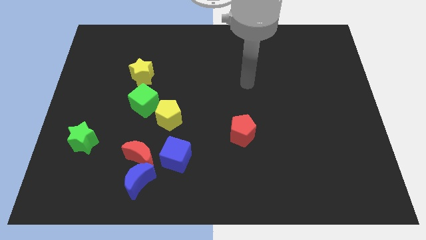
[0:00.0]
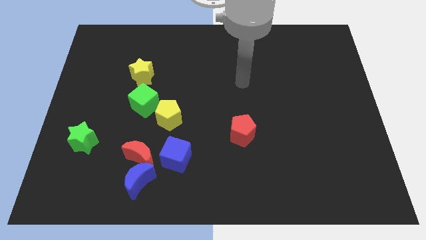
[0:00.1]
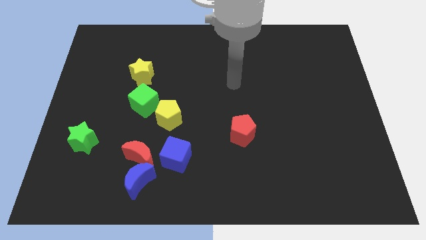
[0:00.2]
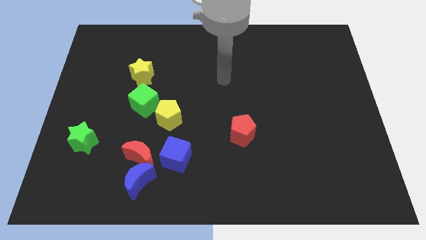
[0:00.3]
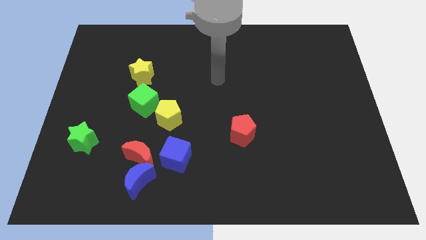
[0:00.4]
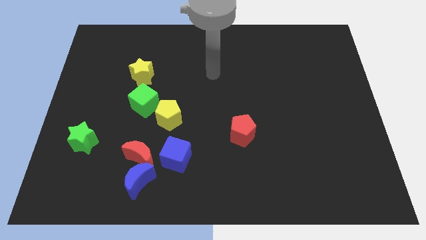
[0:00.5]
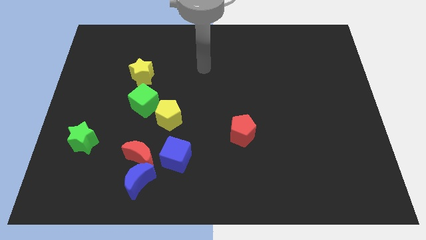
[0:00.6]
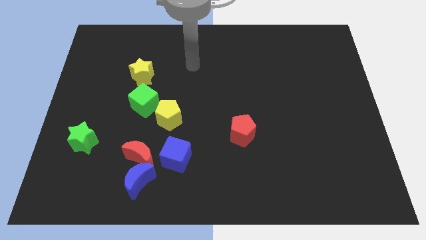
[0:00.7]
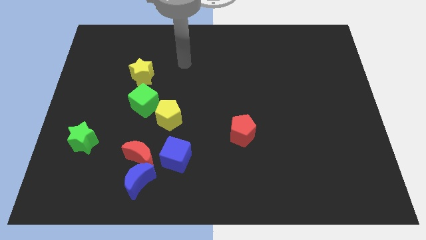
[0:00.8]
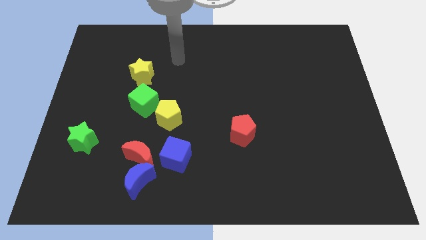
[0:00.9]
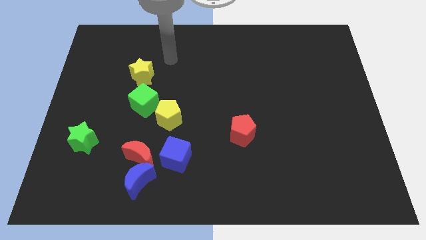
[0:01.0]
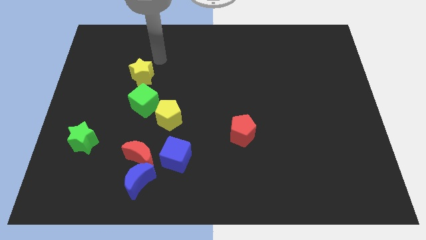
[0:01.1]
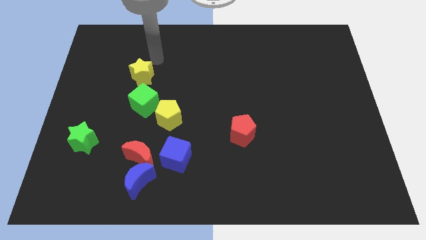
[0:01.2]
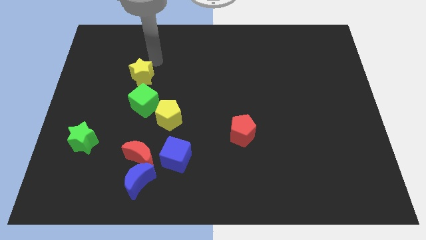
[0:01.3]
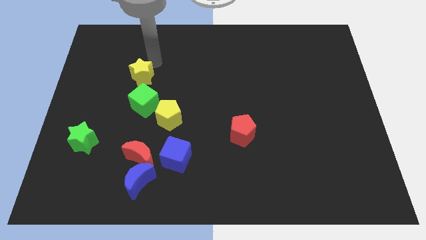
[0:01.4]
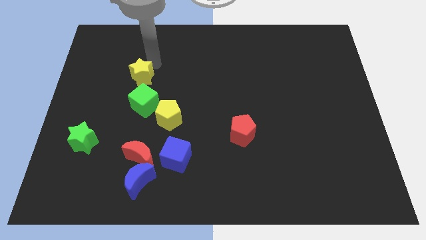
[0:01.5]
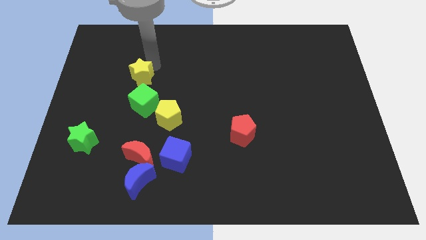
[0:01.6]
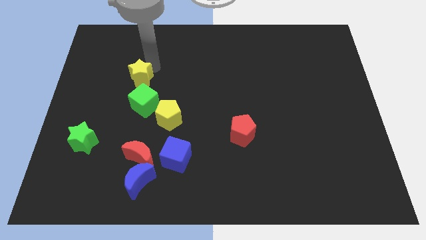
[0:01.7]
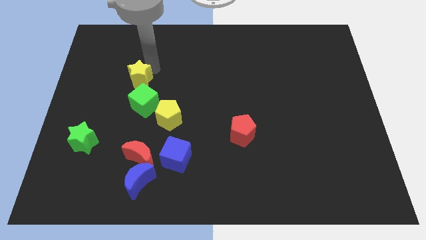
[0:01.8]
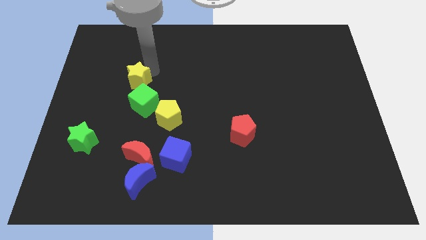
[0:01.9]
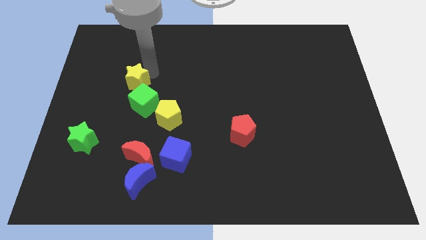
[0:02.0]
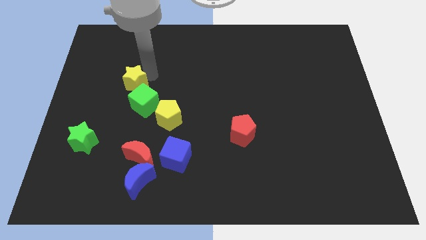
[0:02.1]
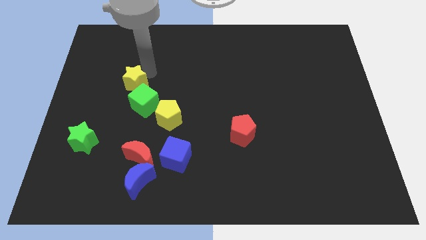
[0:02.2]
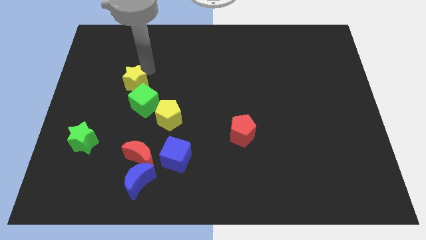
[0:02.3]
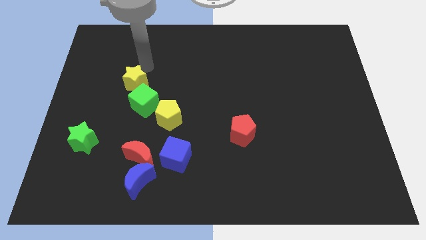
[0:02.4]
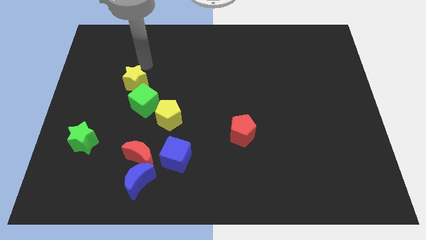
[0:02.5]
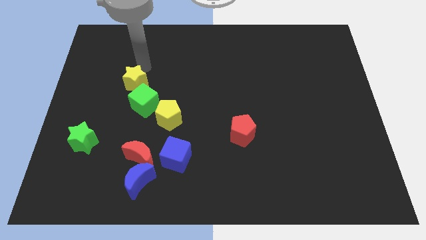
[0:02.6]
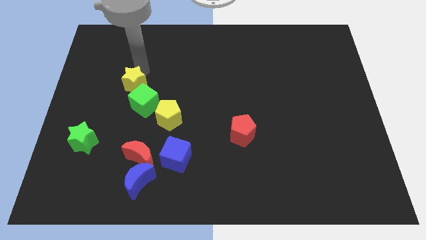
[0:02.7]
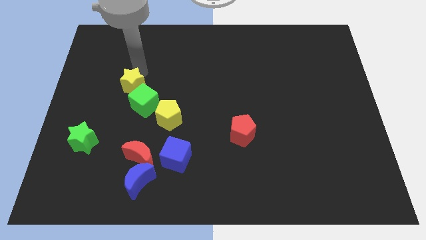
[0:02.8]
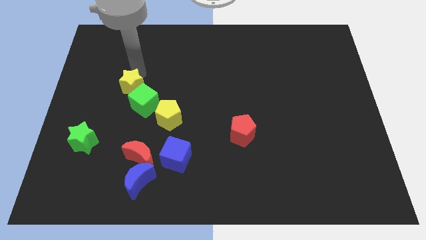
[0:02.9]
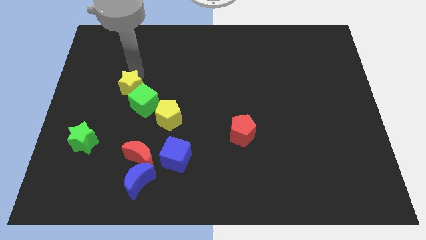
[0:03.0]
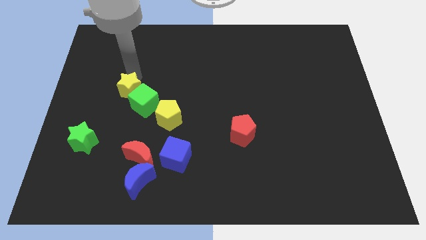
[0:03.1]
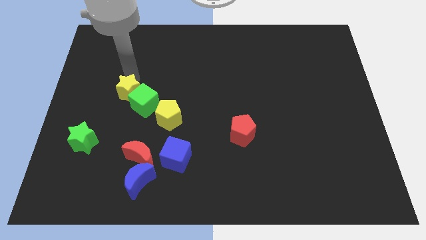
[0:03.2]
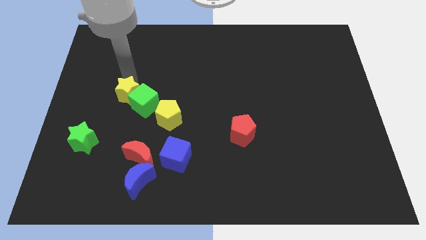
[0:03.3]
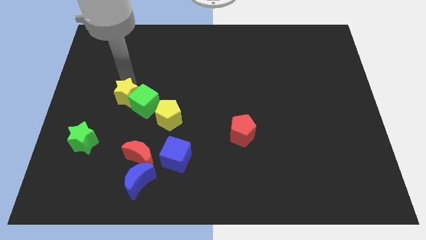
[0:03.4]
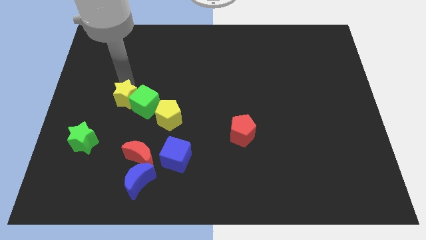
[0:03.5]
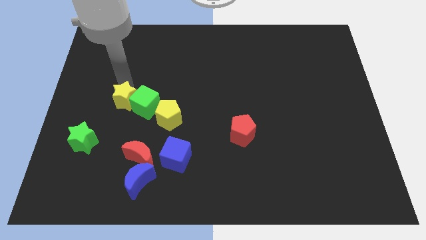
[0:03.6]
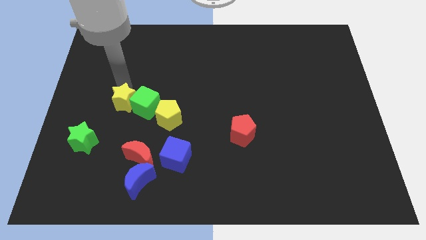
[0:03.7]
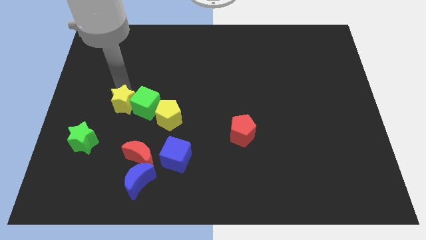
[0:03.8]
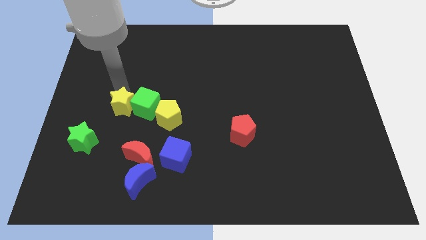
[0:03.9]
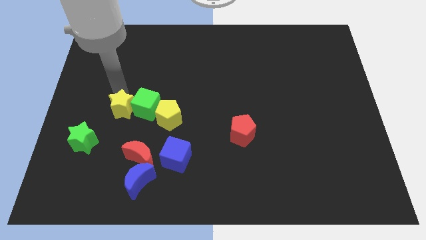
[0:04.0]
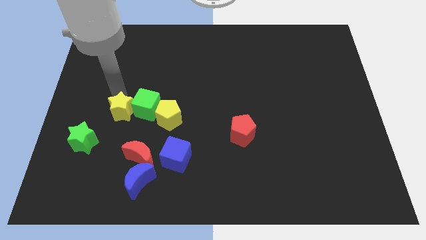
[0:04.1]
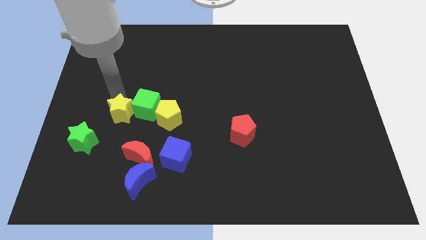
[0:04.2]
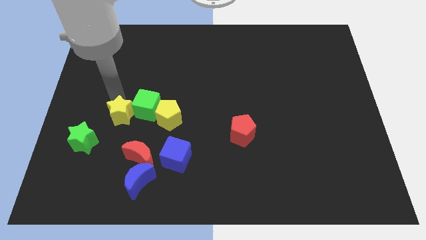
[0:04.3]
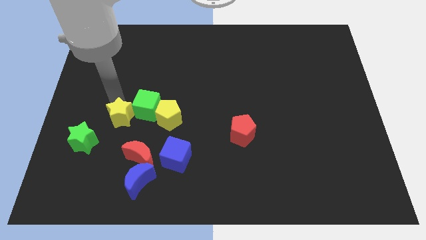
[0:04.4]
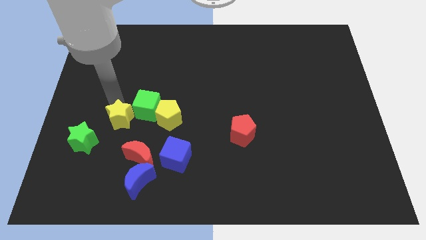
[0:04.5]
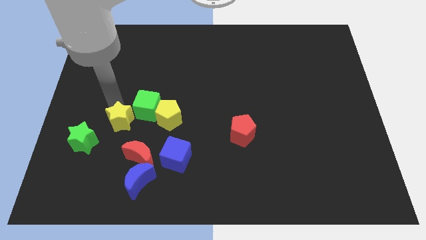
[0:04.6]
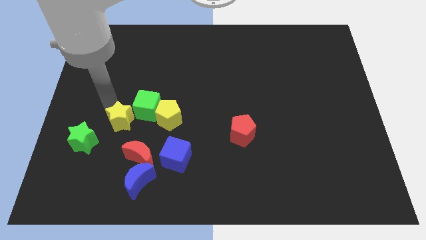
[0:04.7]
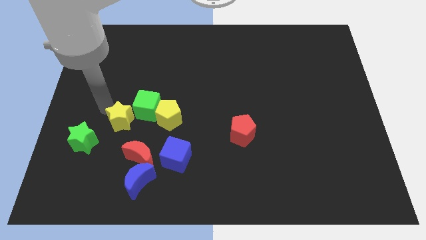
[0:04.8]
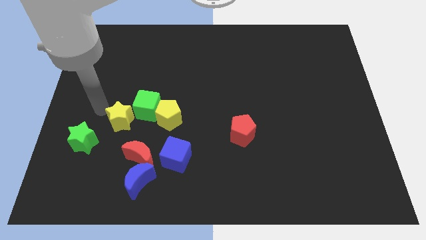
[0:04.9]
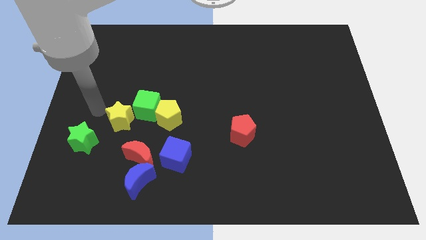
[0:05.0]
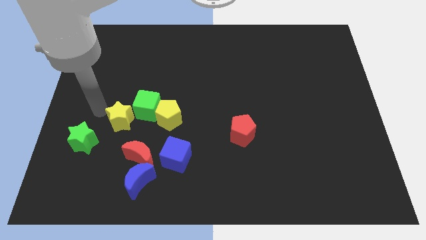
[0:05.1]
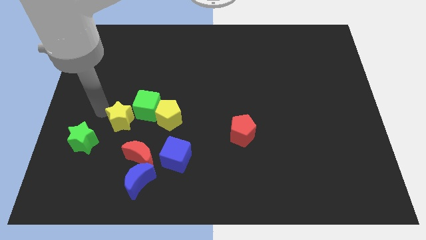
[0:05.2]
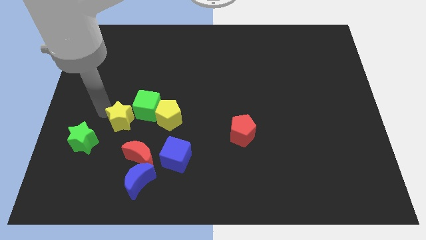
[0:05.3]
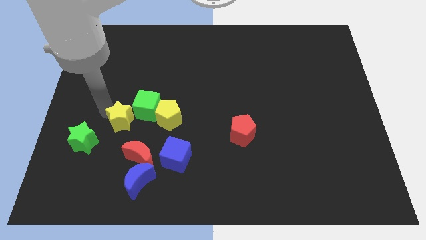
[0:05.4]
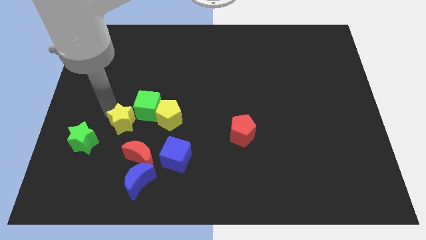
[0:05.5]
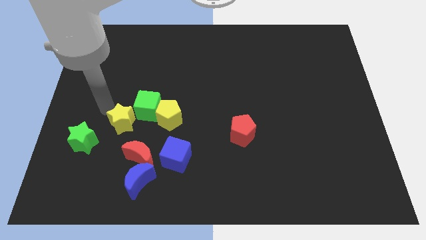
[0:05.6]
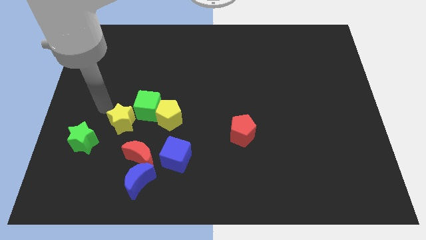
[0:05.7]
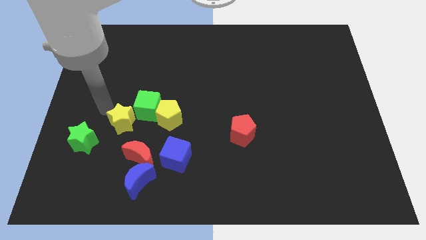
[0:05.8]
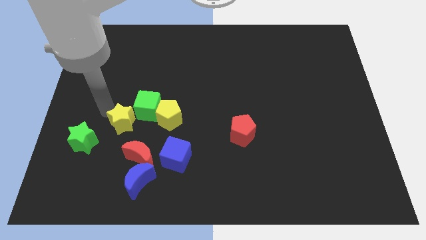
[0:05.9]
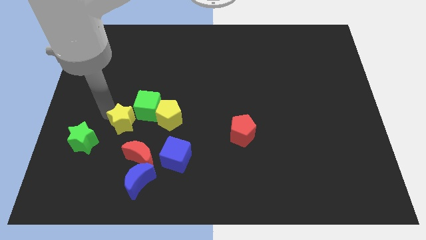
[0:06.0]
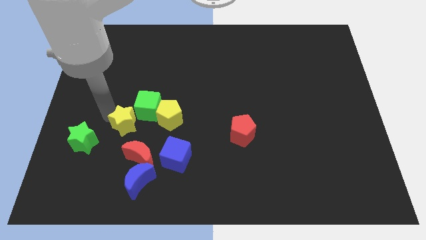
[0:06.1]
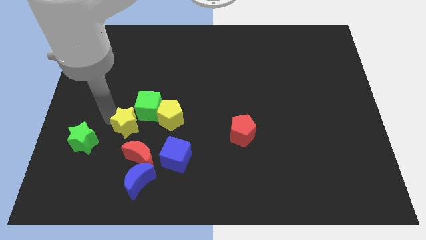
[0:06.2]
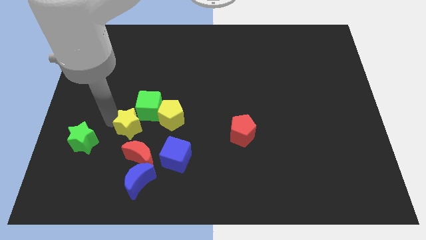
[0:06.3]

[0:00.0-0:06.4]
push the yellow star to the top side of the blue moon

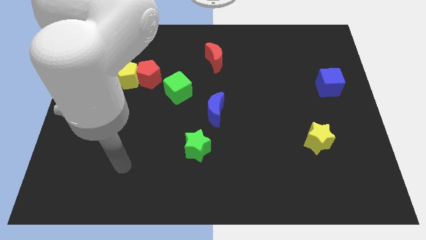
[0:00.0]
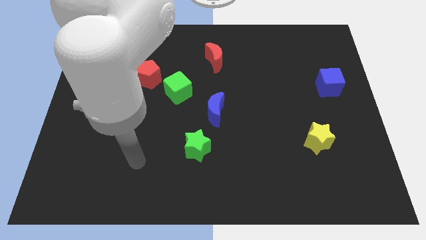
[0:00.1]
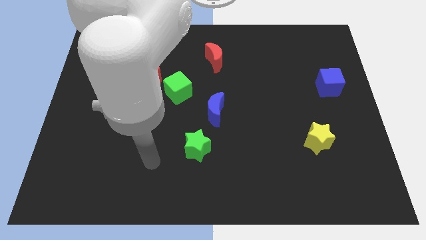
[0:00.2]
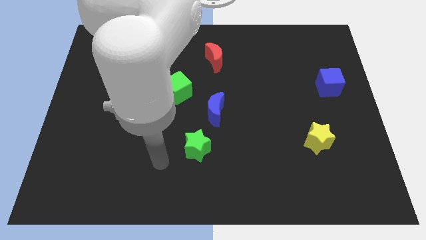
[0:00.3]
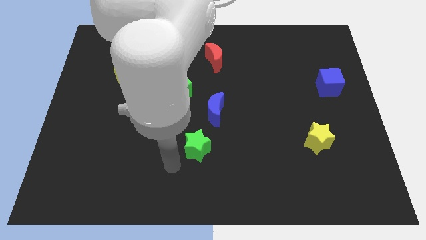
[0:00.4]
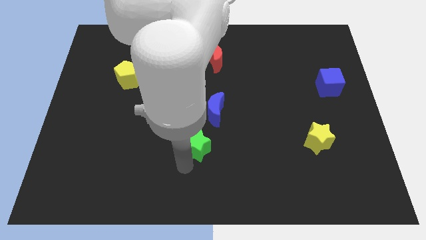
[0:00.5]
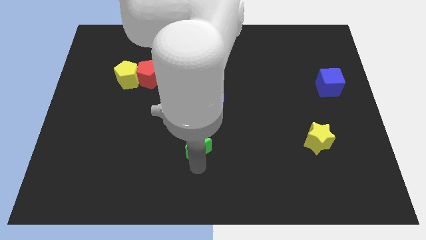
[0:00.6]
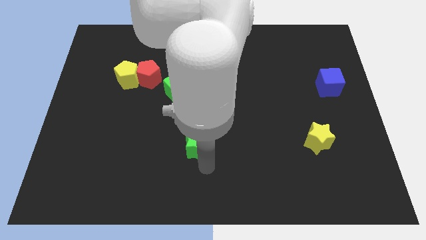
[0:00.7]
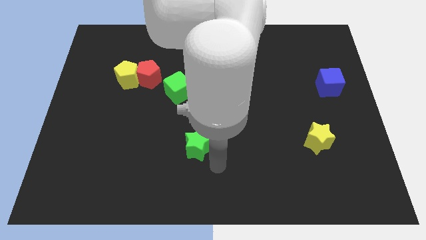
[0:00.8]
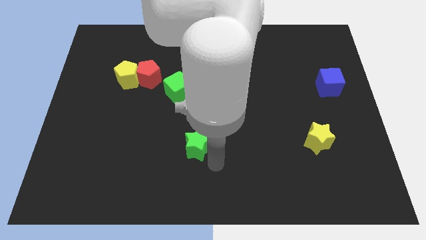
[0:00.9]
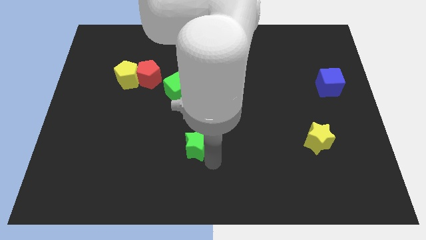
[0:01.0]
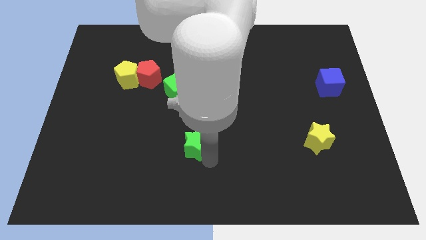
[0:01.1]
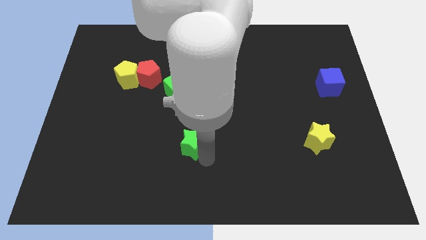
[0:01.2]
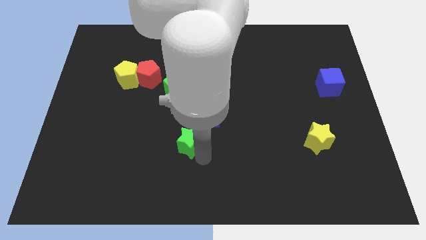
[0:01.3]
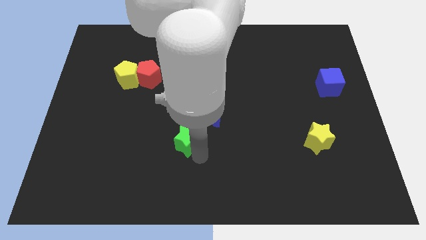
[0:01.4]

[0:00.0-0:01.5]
slide the green star to the bottom of the green cube

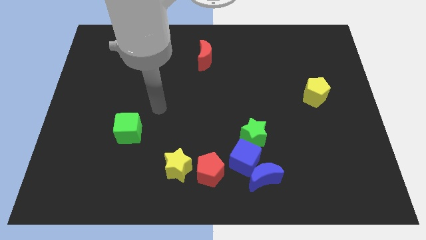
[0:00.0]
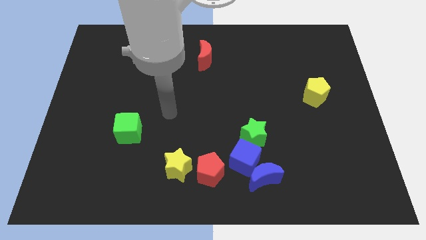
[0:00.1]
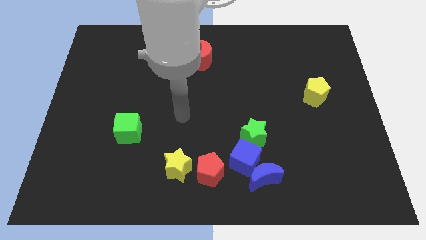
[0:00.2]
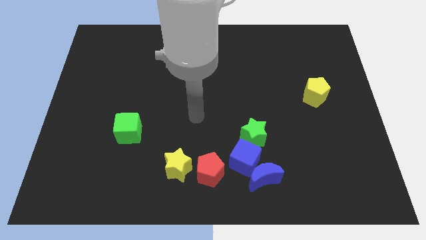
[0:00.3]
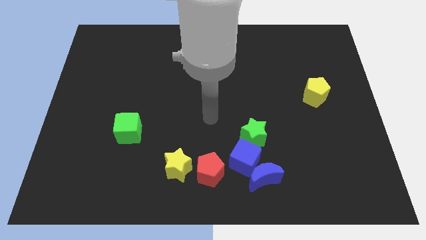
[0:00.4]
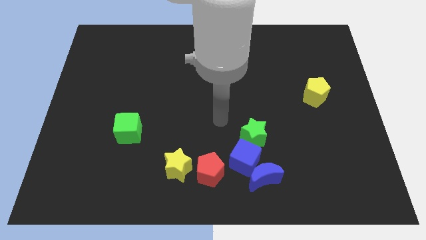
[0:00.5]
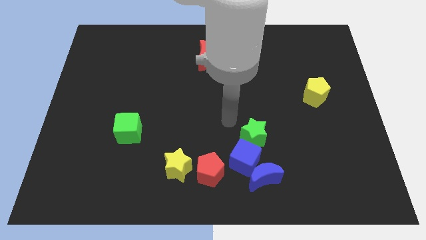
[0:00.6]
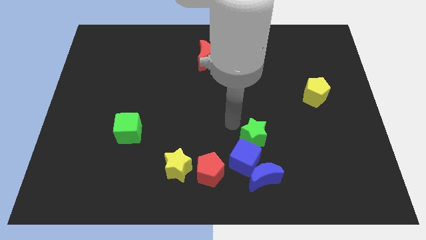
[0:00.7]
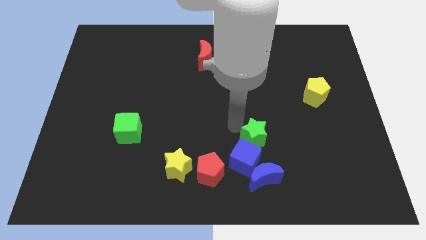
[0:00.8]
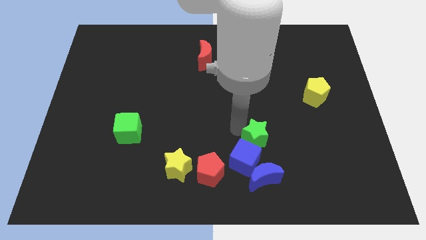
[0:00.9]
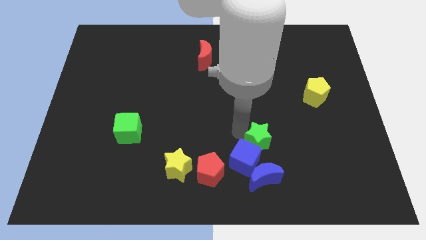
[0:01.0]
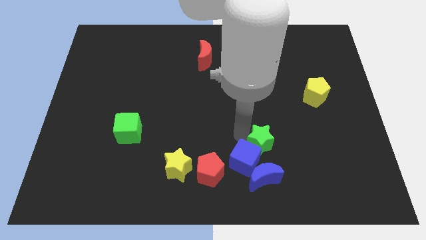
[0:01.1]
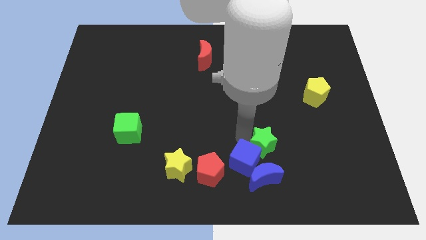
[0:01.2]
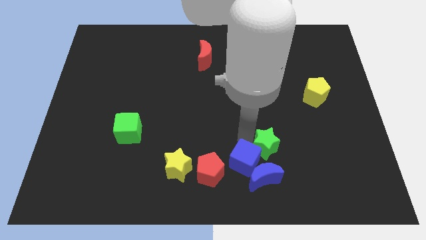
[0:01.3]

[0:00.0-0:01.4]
push the green star diagonally up and to the right of the blue moon
